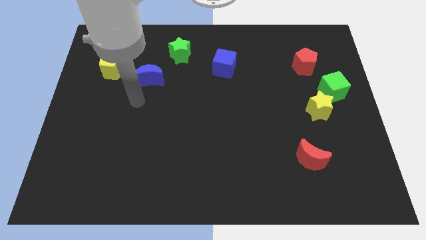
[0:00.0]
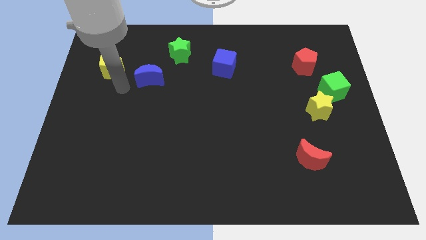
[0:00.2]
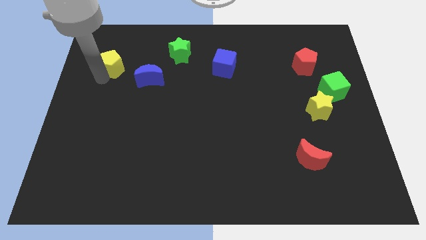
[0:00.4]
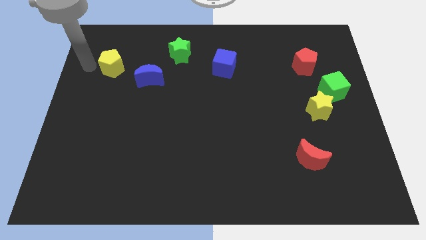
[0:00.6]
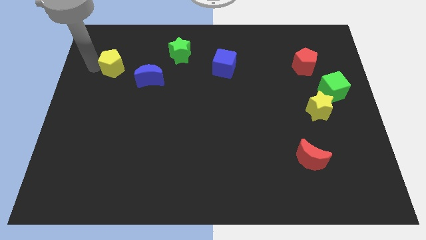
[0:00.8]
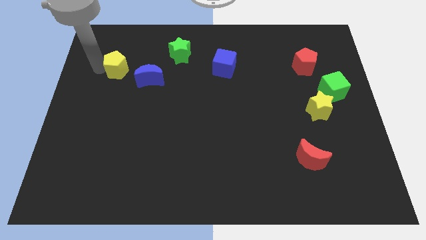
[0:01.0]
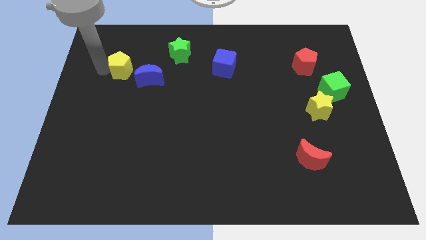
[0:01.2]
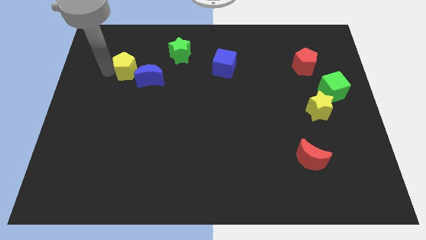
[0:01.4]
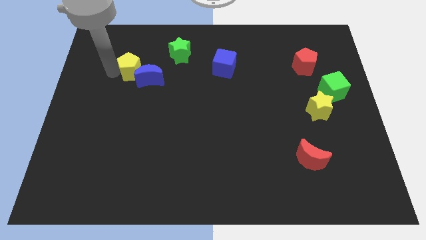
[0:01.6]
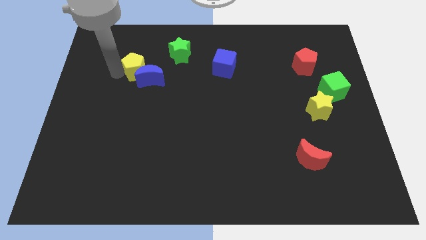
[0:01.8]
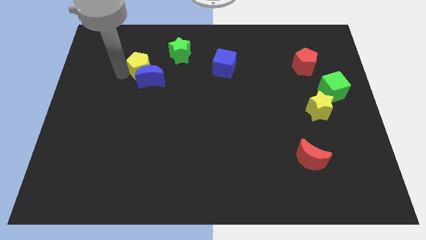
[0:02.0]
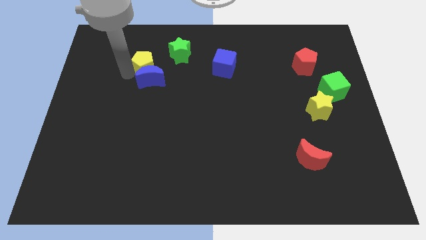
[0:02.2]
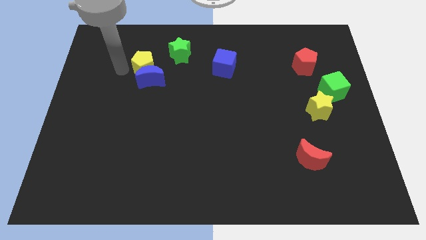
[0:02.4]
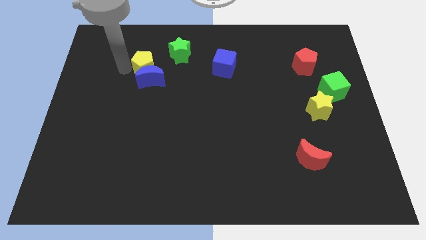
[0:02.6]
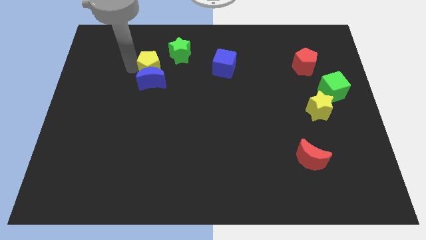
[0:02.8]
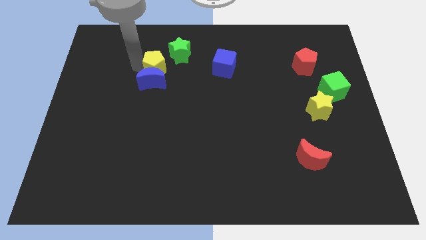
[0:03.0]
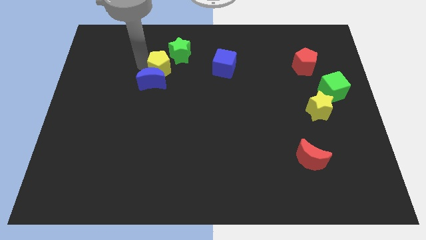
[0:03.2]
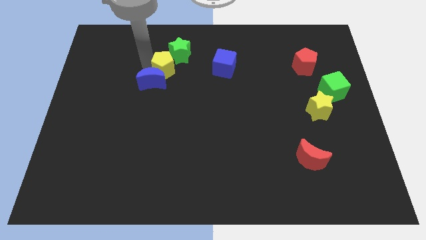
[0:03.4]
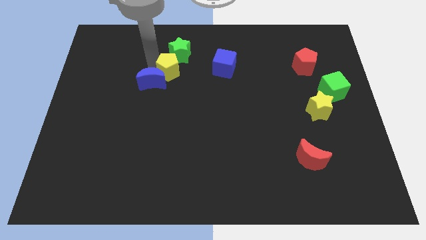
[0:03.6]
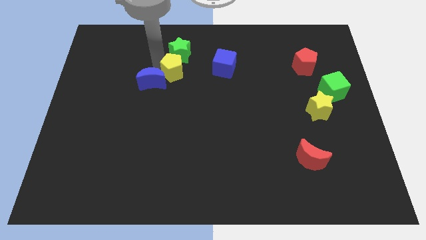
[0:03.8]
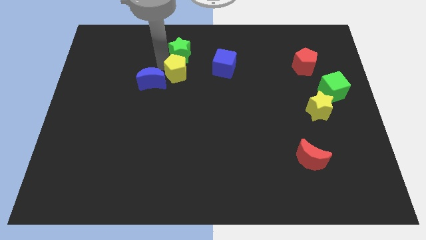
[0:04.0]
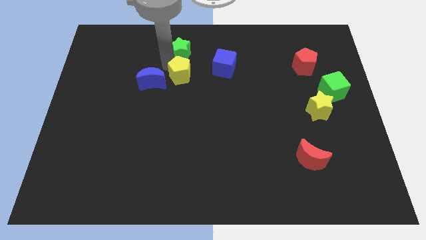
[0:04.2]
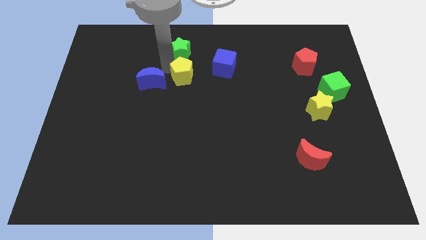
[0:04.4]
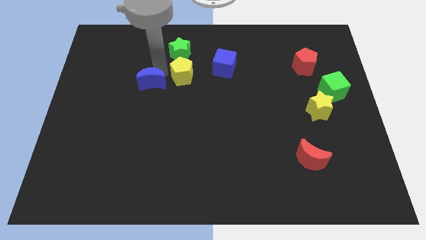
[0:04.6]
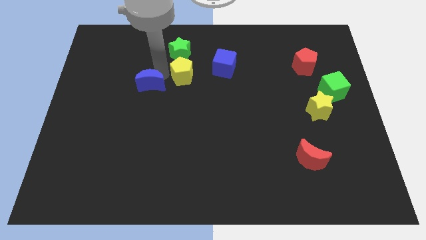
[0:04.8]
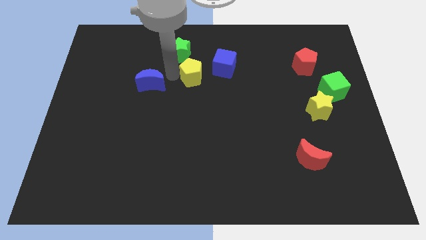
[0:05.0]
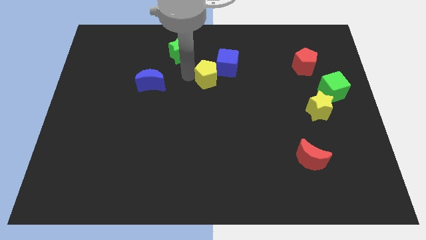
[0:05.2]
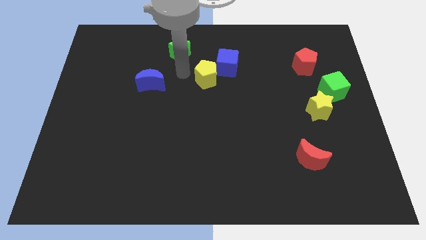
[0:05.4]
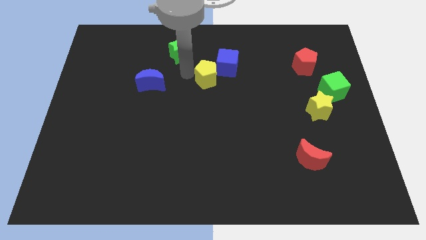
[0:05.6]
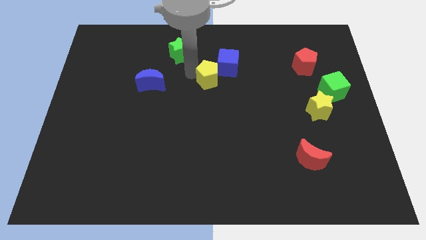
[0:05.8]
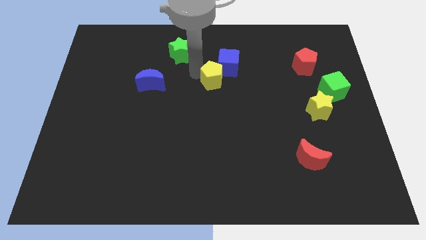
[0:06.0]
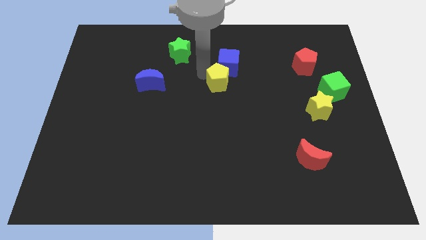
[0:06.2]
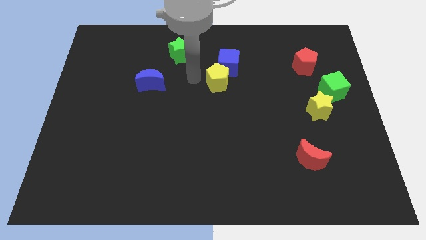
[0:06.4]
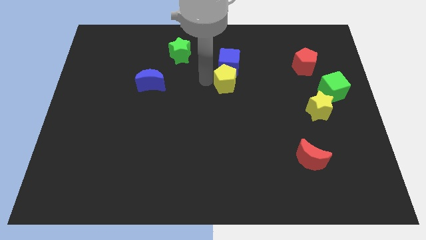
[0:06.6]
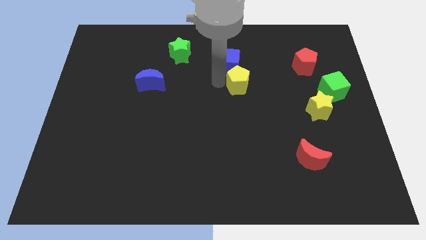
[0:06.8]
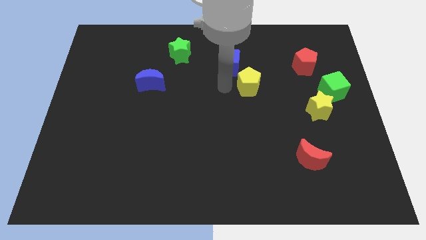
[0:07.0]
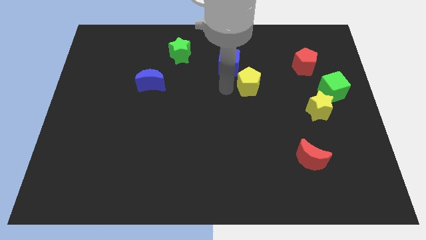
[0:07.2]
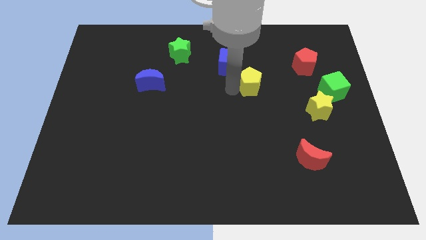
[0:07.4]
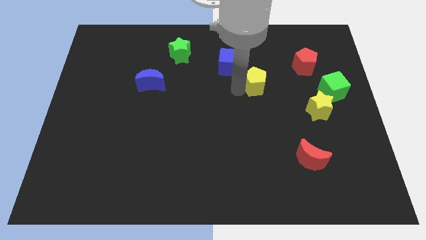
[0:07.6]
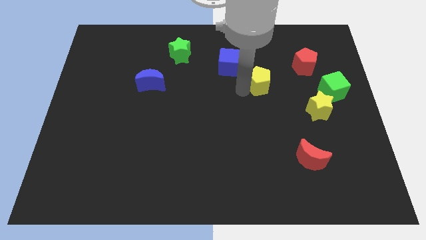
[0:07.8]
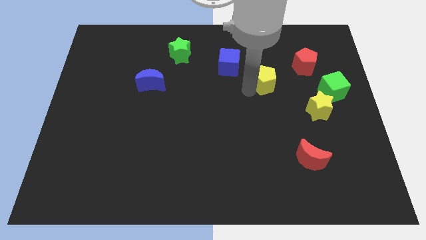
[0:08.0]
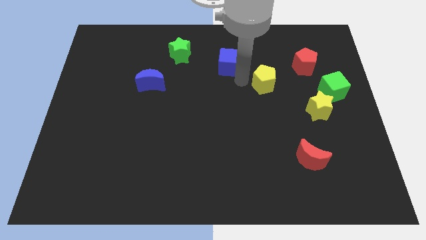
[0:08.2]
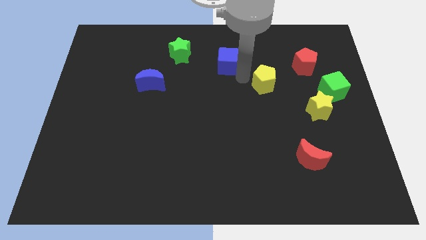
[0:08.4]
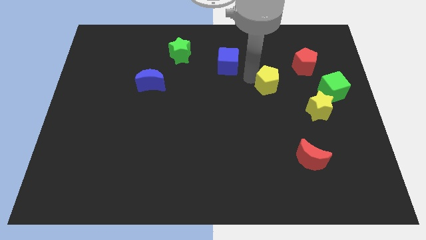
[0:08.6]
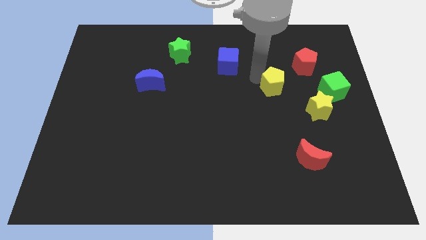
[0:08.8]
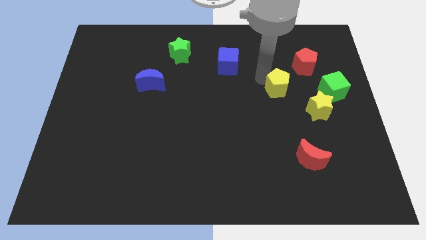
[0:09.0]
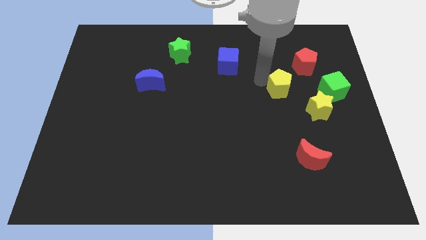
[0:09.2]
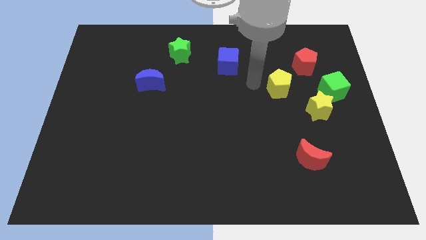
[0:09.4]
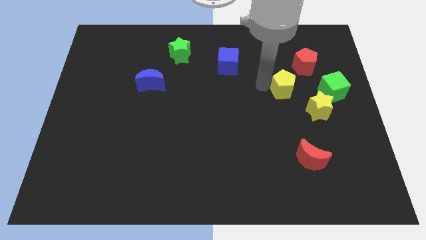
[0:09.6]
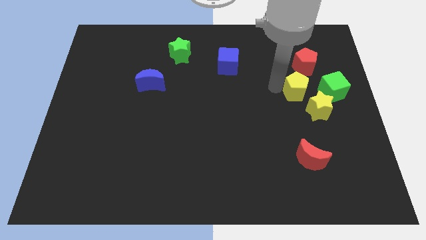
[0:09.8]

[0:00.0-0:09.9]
slide the yellow pentagon to the bottom of the red pentagon

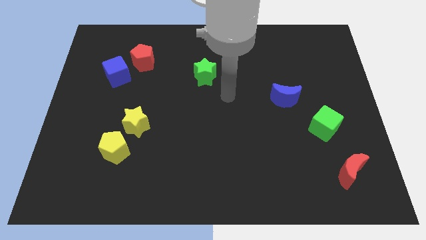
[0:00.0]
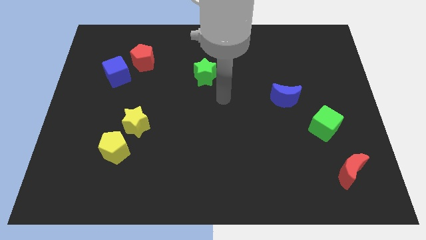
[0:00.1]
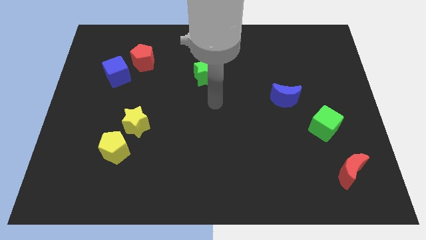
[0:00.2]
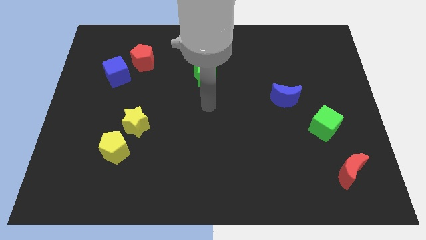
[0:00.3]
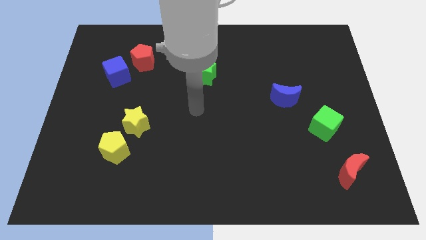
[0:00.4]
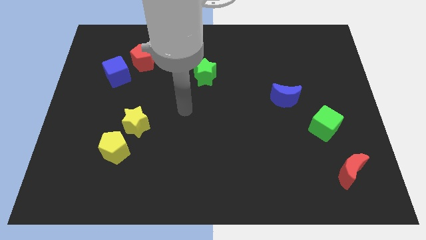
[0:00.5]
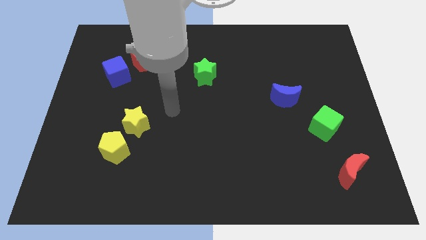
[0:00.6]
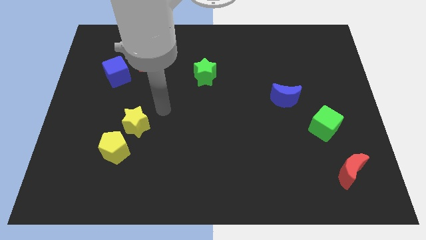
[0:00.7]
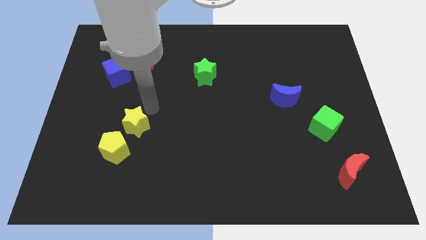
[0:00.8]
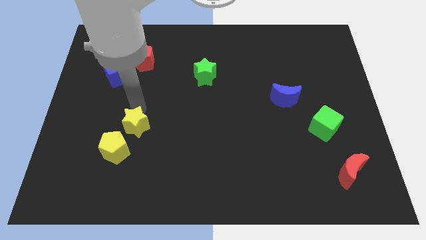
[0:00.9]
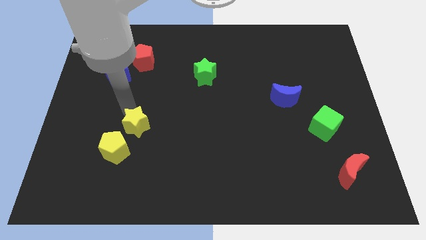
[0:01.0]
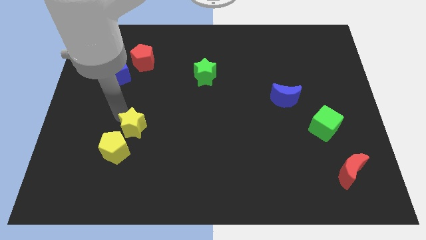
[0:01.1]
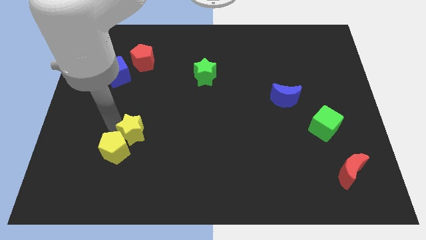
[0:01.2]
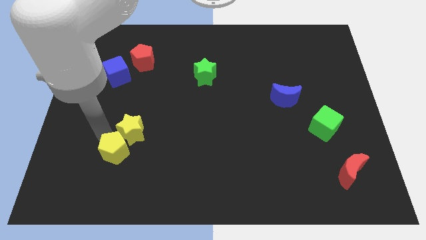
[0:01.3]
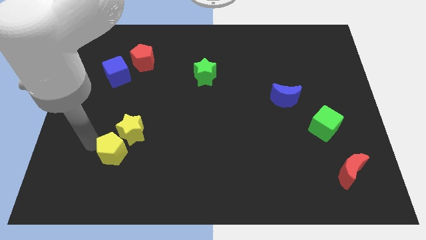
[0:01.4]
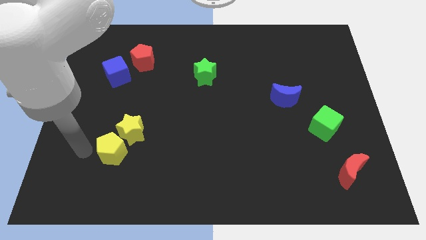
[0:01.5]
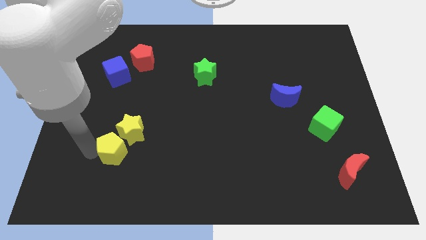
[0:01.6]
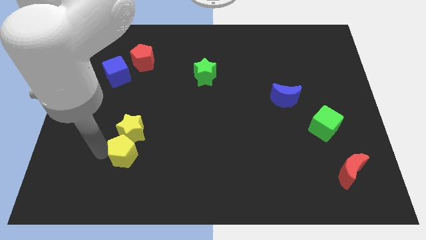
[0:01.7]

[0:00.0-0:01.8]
move the yellow pentagon diagonally down and to the right of the yellow star
